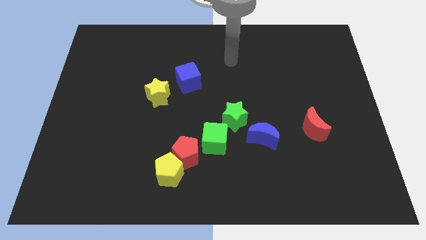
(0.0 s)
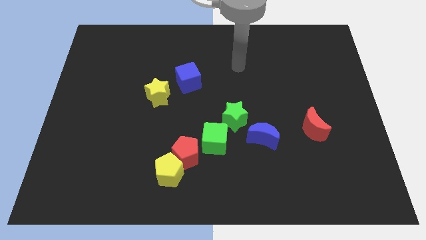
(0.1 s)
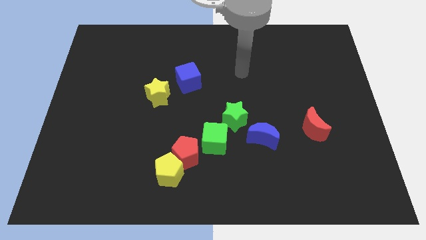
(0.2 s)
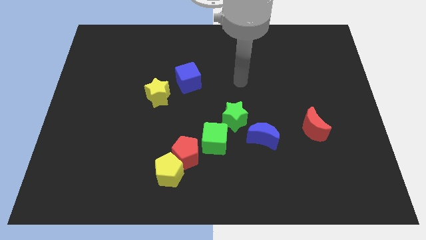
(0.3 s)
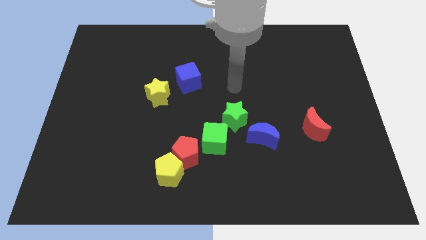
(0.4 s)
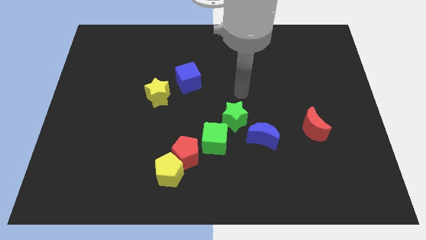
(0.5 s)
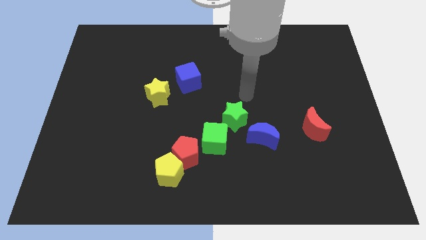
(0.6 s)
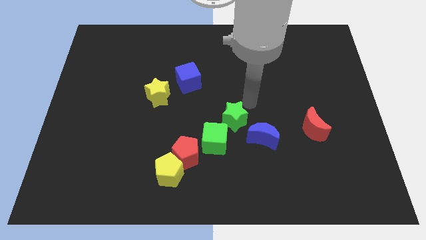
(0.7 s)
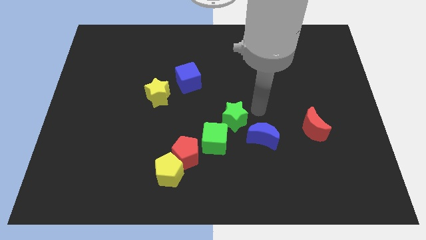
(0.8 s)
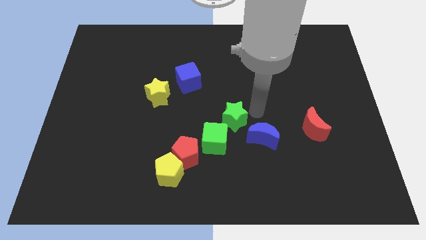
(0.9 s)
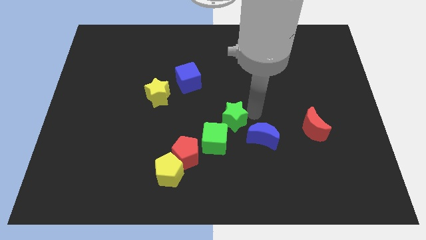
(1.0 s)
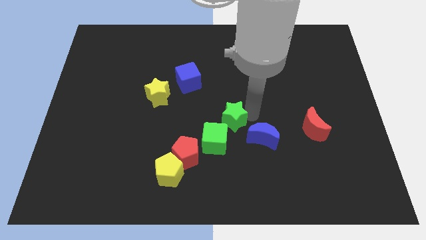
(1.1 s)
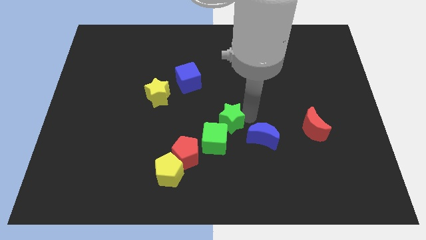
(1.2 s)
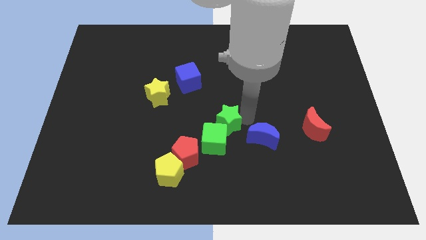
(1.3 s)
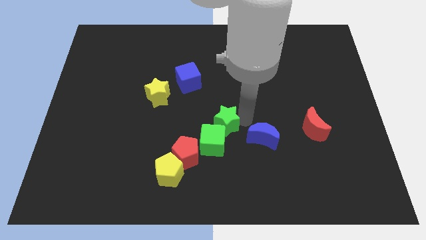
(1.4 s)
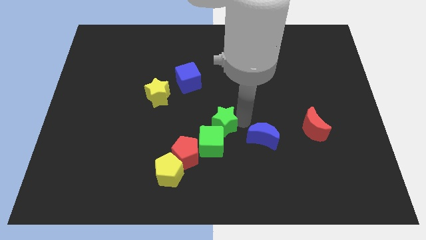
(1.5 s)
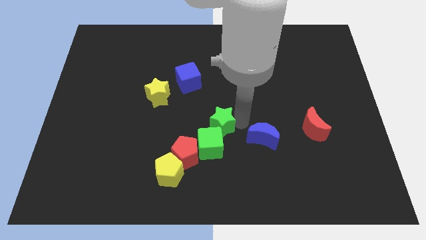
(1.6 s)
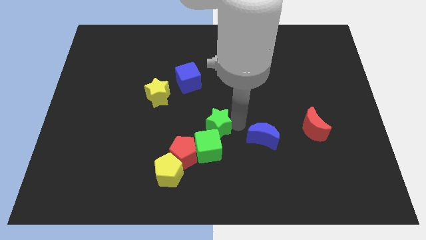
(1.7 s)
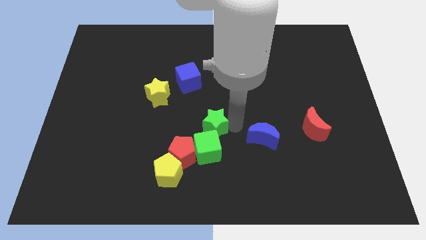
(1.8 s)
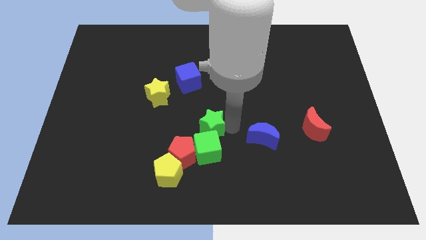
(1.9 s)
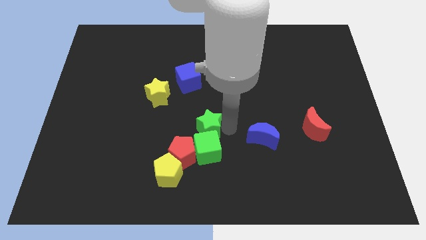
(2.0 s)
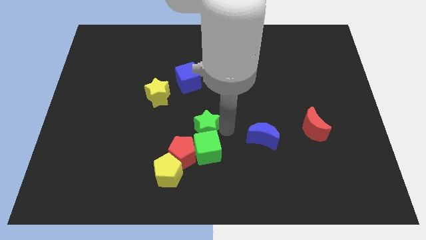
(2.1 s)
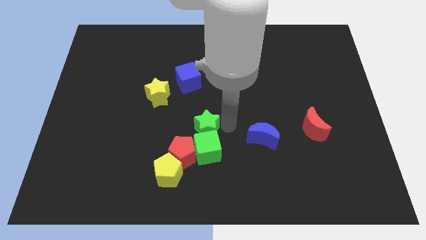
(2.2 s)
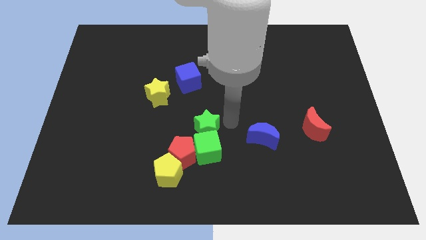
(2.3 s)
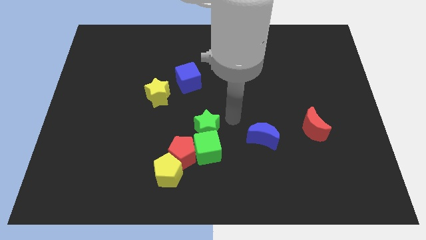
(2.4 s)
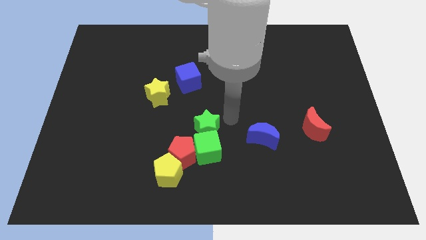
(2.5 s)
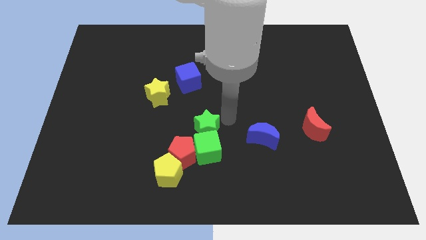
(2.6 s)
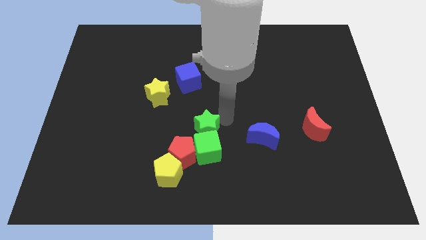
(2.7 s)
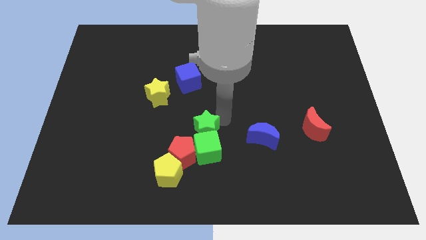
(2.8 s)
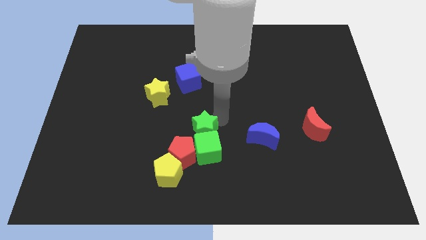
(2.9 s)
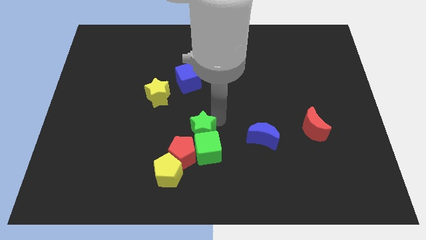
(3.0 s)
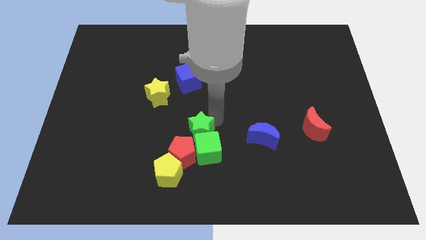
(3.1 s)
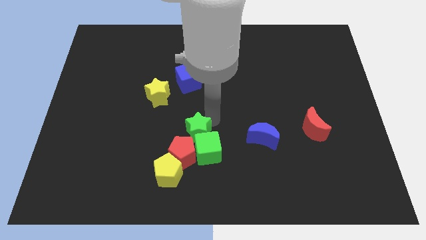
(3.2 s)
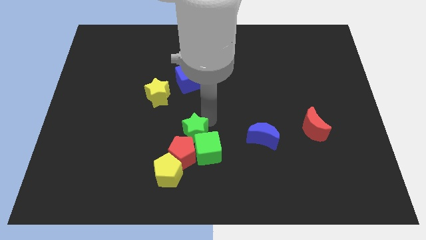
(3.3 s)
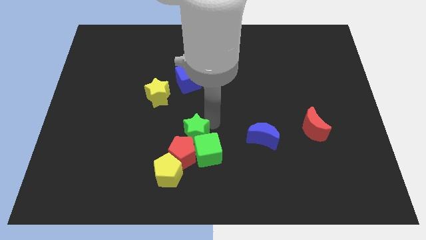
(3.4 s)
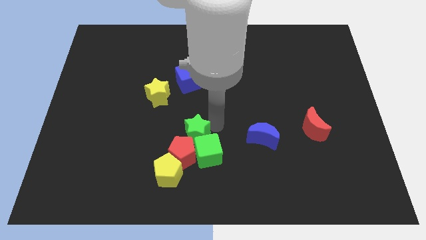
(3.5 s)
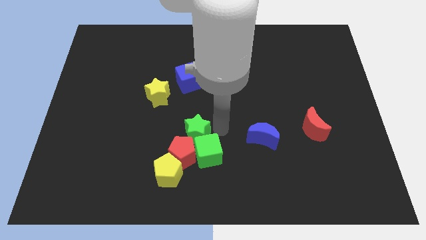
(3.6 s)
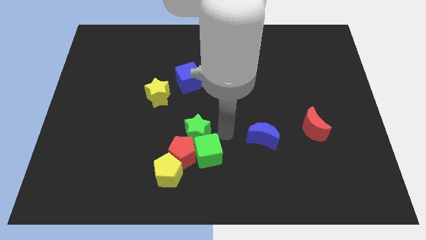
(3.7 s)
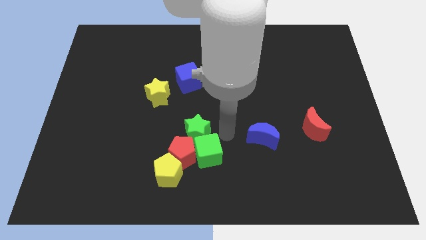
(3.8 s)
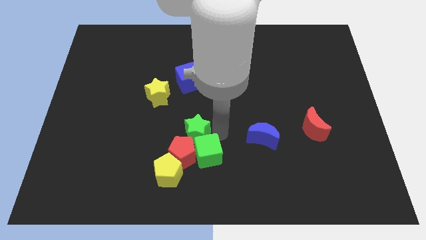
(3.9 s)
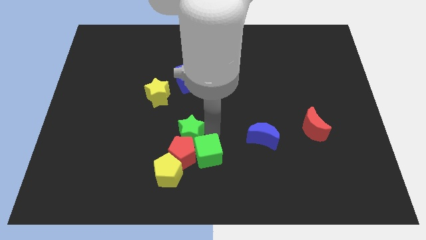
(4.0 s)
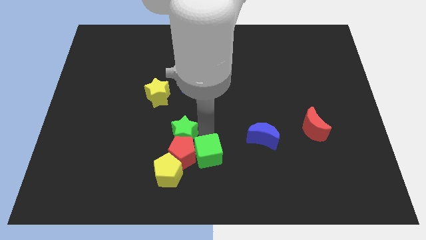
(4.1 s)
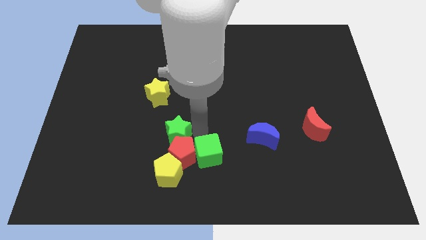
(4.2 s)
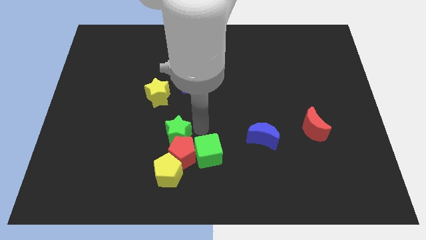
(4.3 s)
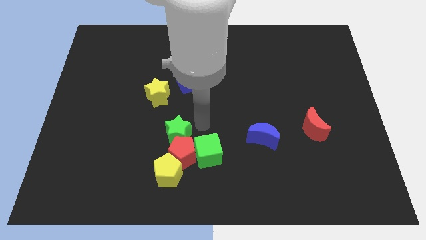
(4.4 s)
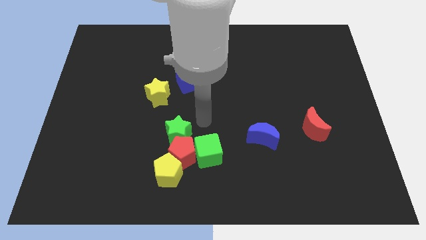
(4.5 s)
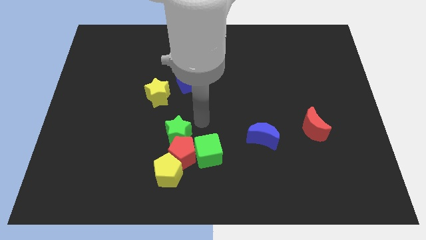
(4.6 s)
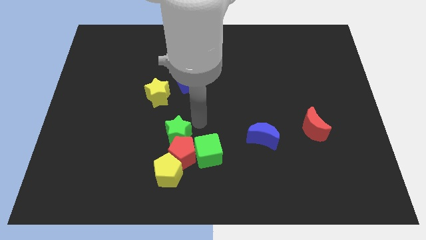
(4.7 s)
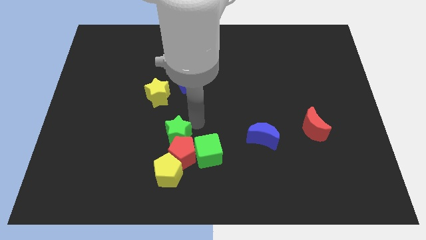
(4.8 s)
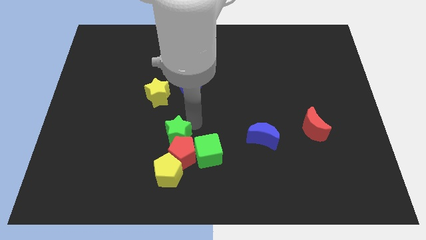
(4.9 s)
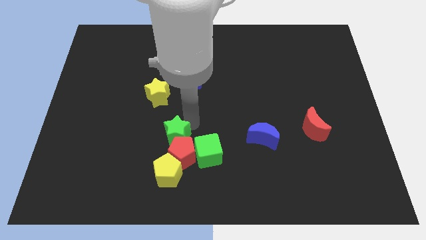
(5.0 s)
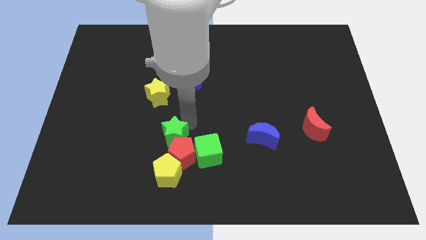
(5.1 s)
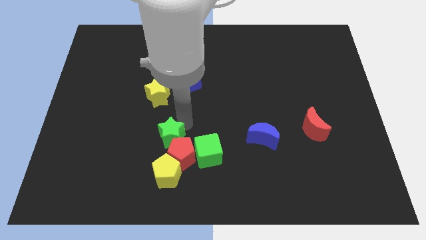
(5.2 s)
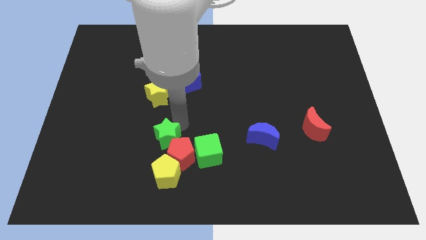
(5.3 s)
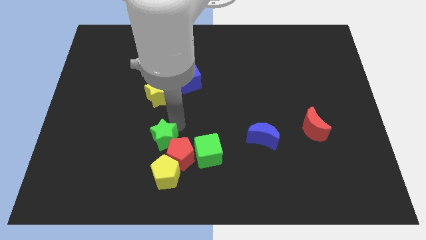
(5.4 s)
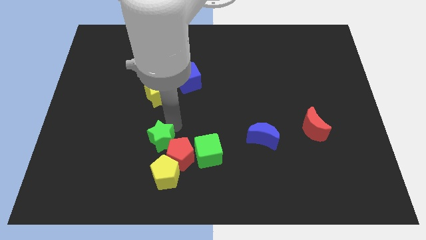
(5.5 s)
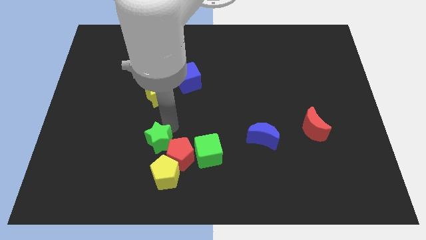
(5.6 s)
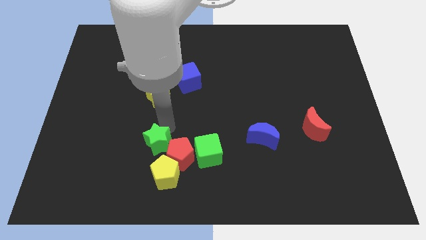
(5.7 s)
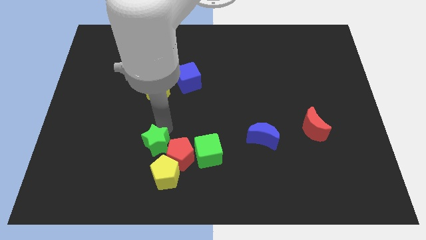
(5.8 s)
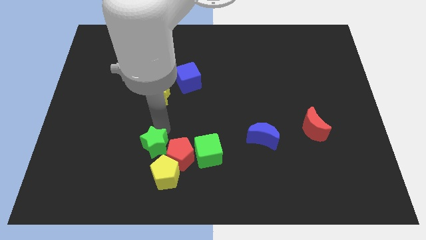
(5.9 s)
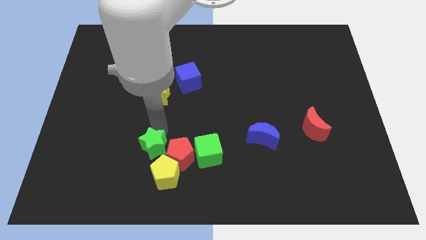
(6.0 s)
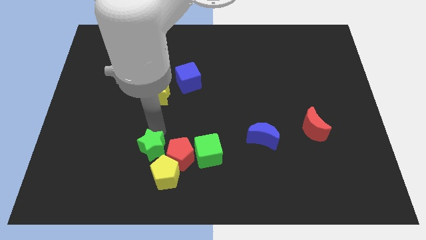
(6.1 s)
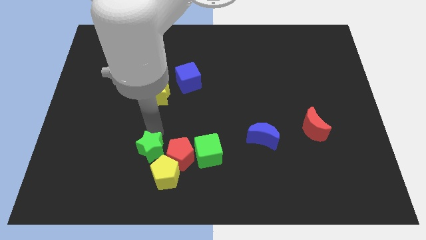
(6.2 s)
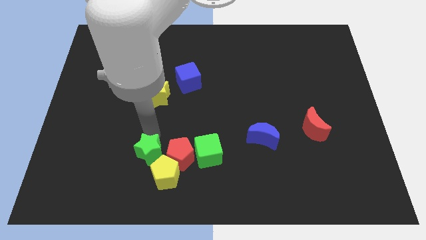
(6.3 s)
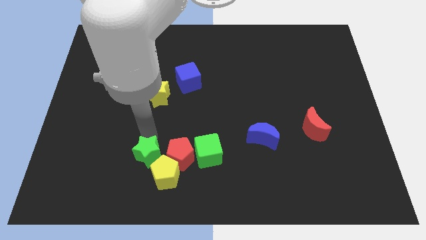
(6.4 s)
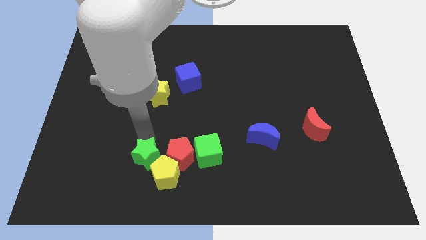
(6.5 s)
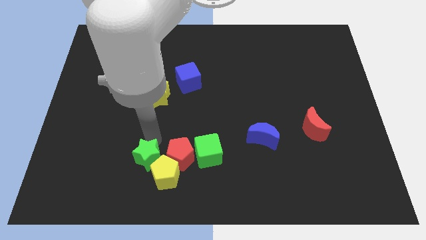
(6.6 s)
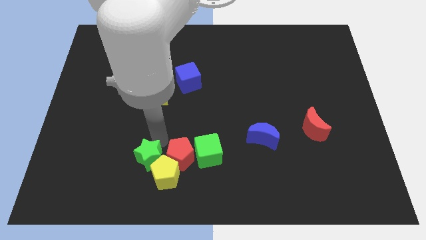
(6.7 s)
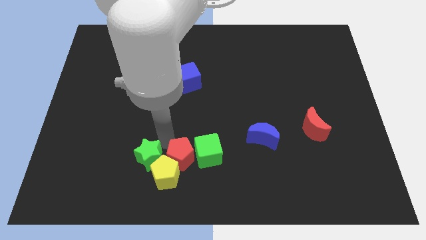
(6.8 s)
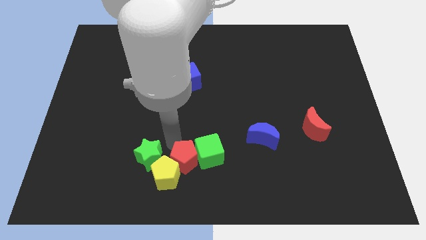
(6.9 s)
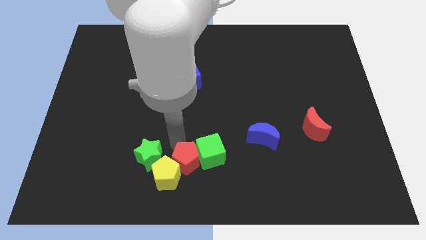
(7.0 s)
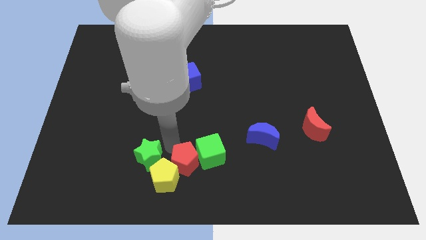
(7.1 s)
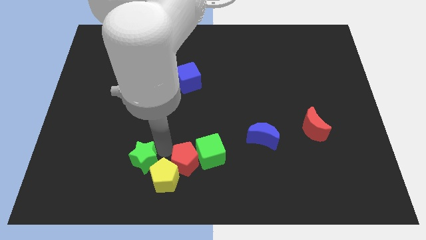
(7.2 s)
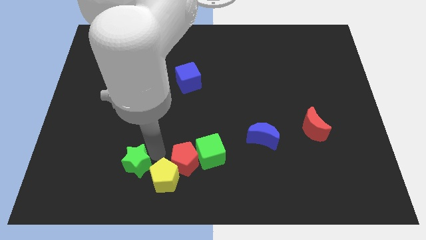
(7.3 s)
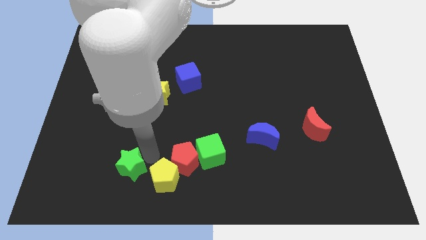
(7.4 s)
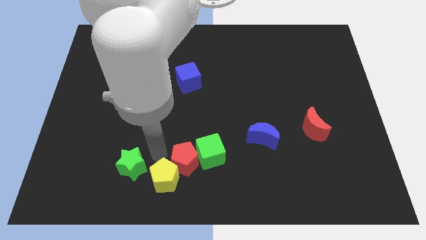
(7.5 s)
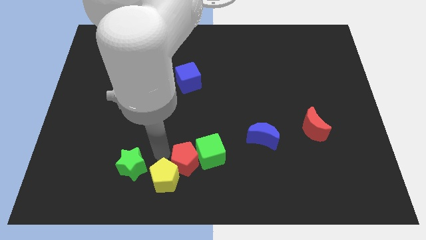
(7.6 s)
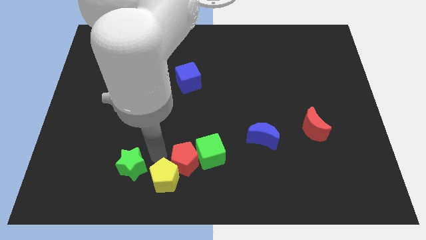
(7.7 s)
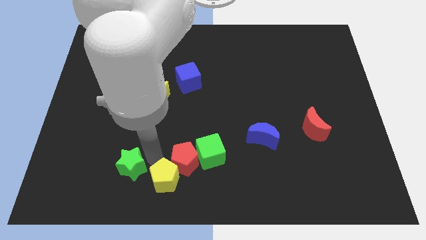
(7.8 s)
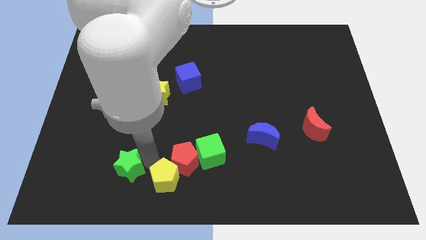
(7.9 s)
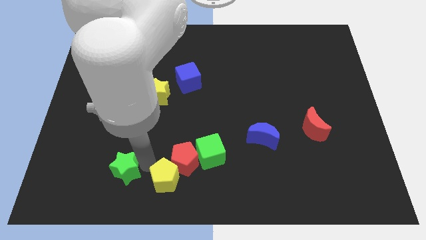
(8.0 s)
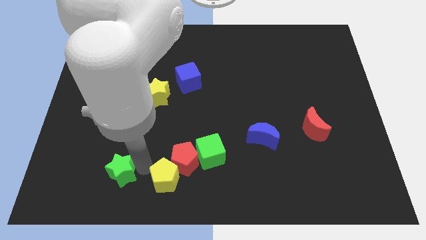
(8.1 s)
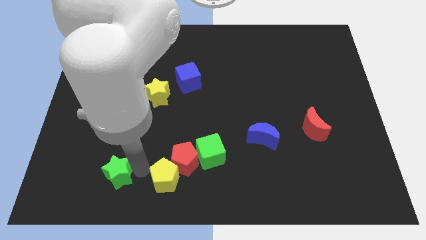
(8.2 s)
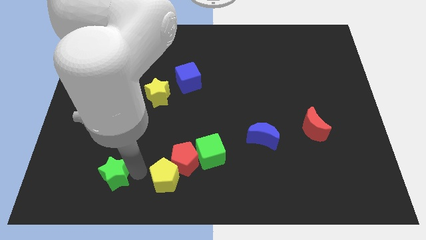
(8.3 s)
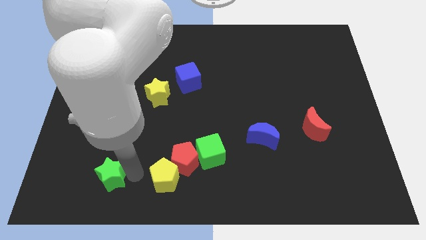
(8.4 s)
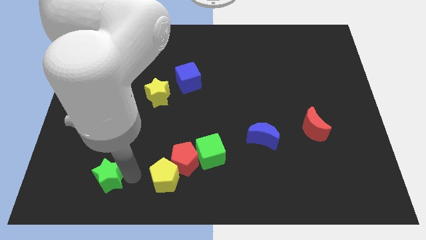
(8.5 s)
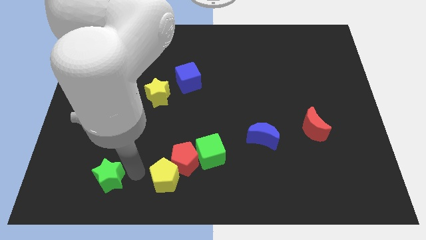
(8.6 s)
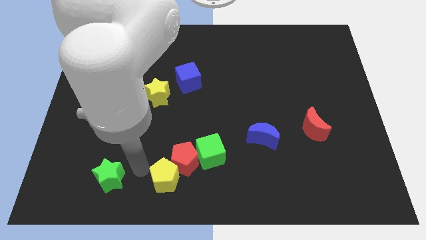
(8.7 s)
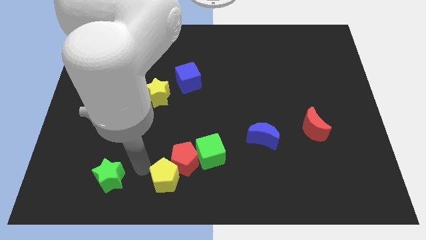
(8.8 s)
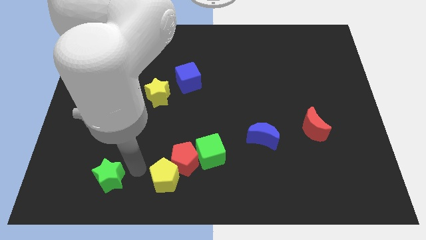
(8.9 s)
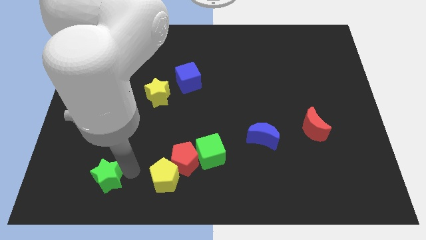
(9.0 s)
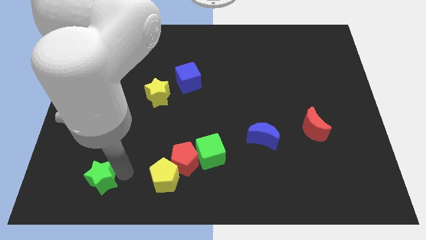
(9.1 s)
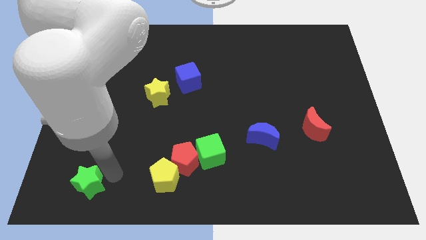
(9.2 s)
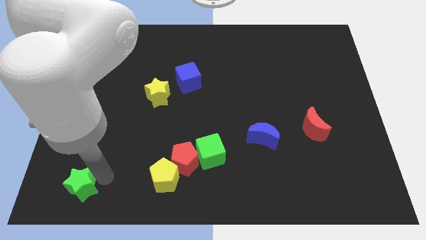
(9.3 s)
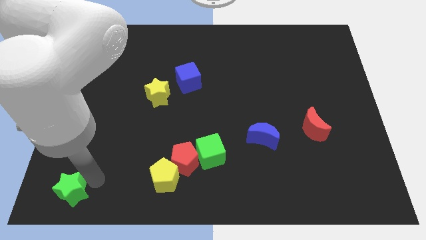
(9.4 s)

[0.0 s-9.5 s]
push the green star to the bottom left of the board
